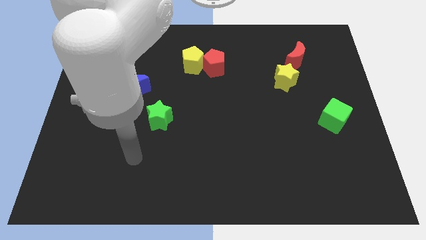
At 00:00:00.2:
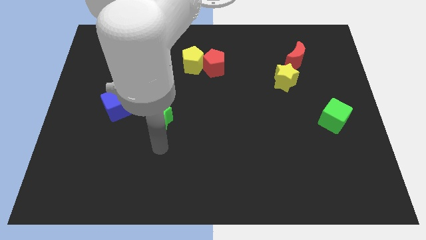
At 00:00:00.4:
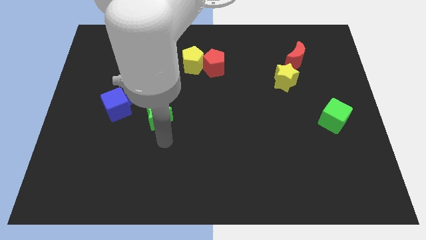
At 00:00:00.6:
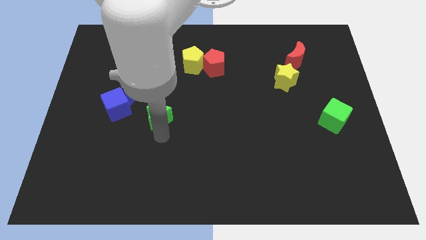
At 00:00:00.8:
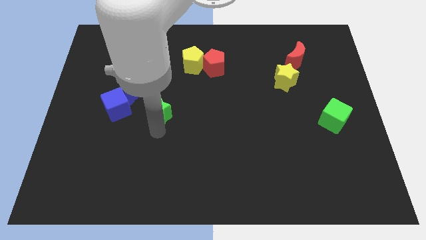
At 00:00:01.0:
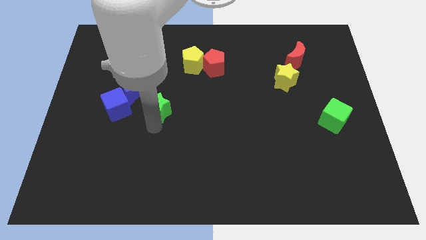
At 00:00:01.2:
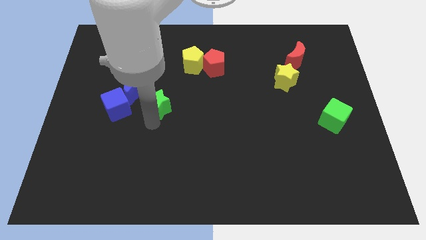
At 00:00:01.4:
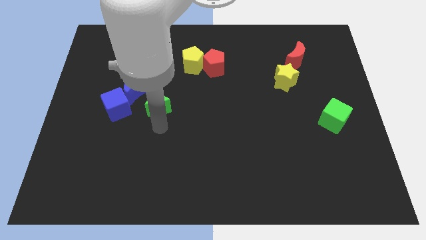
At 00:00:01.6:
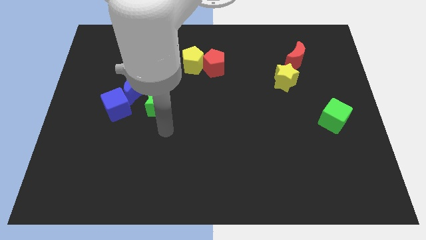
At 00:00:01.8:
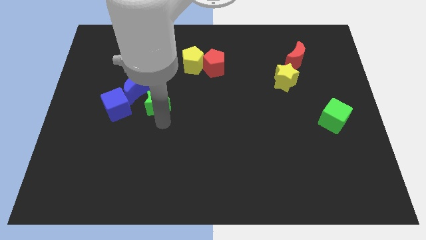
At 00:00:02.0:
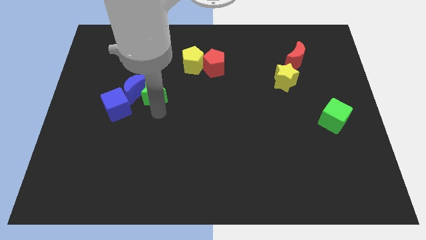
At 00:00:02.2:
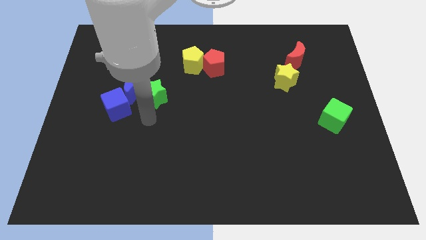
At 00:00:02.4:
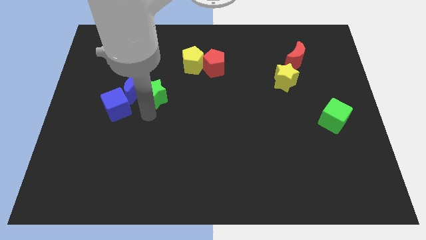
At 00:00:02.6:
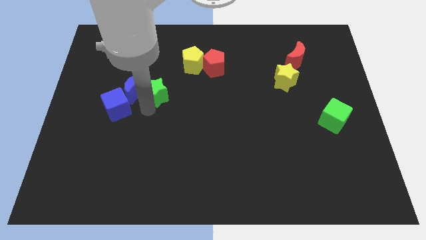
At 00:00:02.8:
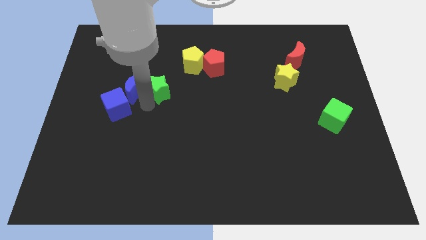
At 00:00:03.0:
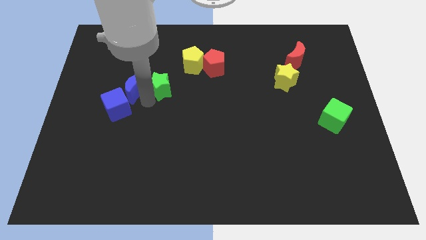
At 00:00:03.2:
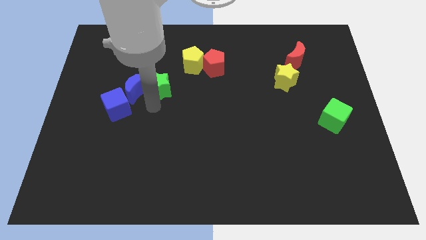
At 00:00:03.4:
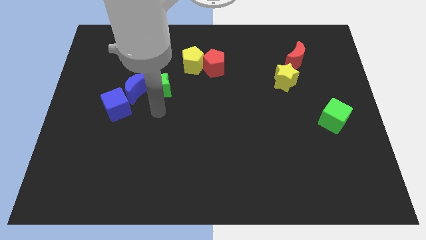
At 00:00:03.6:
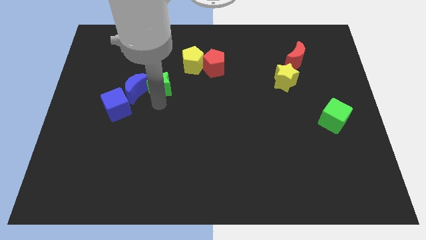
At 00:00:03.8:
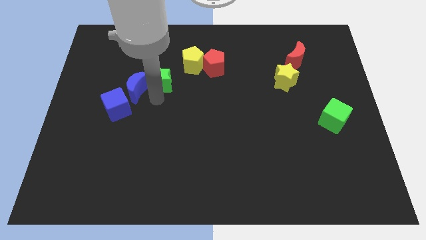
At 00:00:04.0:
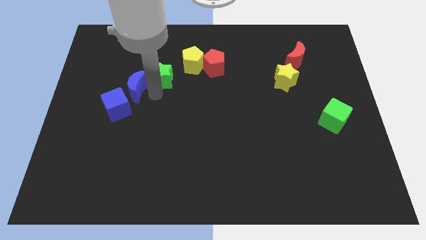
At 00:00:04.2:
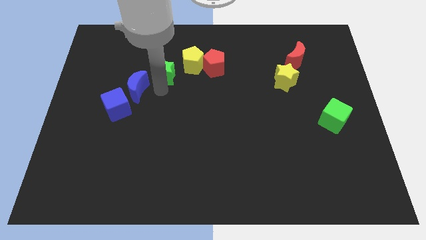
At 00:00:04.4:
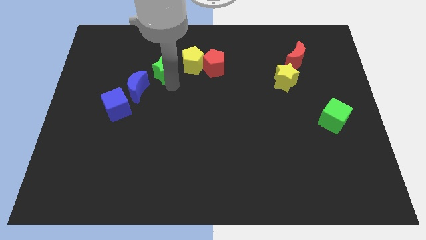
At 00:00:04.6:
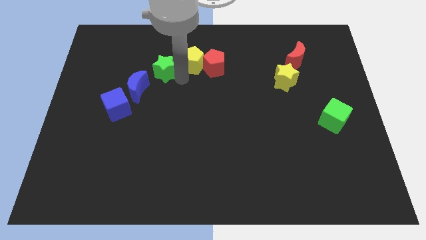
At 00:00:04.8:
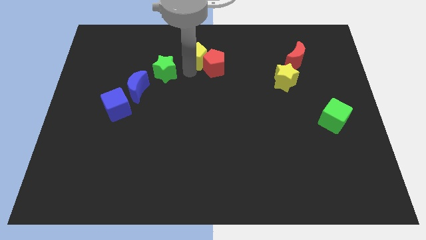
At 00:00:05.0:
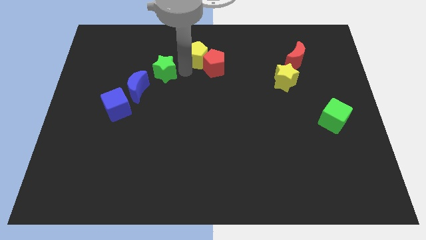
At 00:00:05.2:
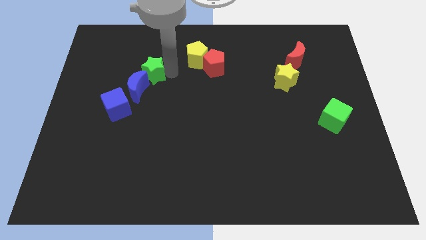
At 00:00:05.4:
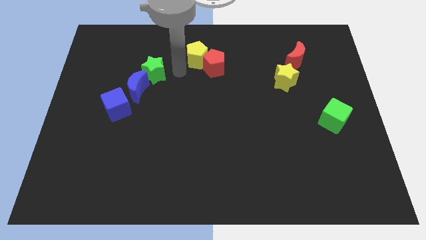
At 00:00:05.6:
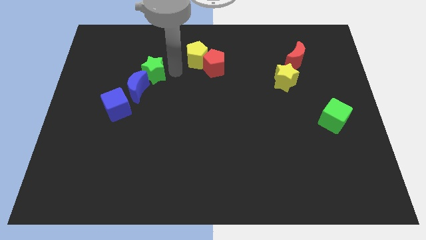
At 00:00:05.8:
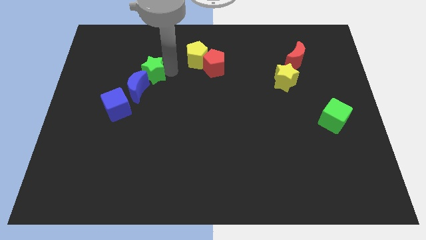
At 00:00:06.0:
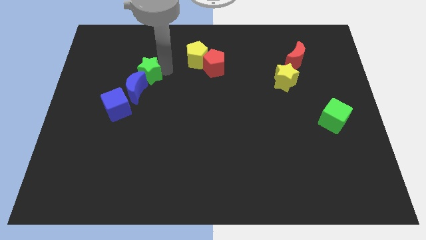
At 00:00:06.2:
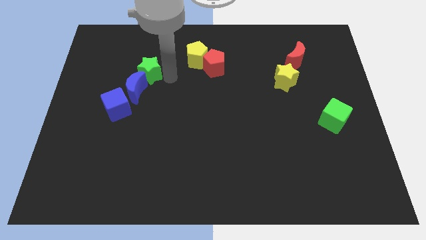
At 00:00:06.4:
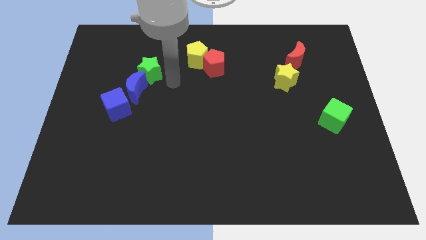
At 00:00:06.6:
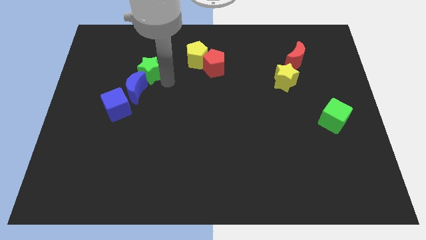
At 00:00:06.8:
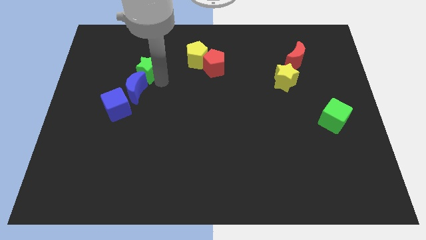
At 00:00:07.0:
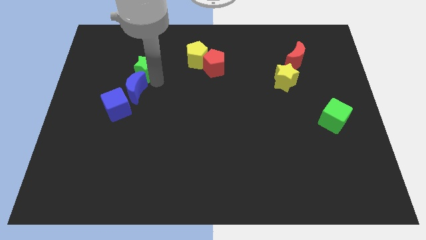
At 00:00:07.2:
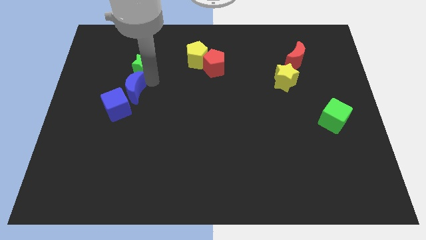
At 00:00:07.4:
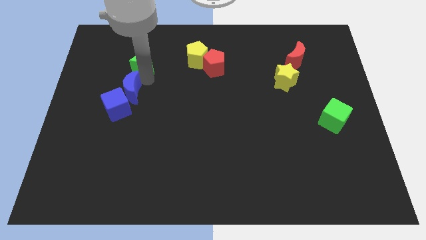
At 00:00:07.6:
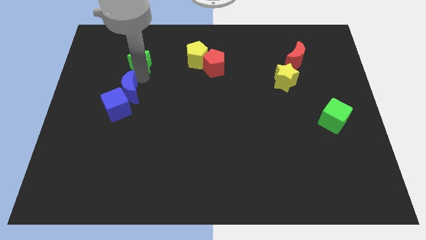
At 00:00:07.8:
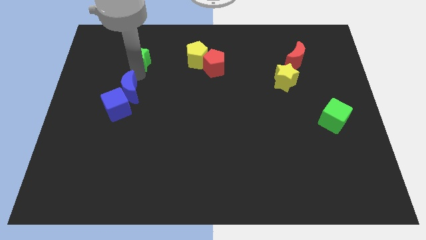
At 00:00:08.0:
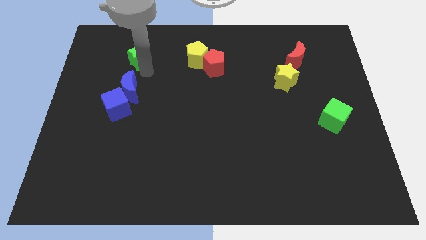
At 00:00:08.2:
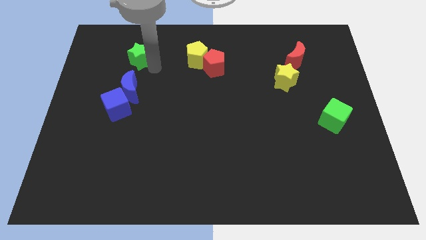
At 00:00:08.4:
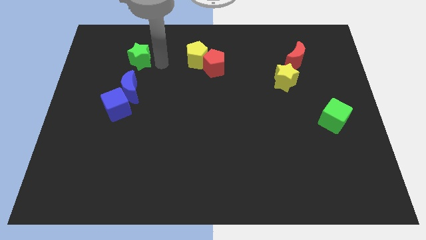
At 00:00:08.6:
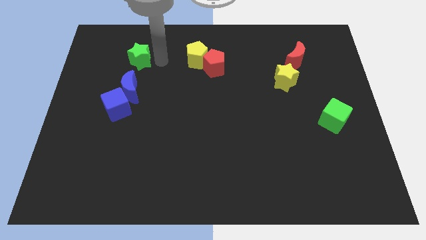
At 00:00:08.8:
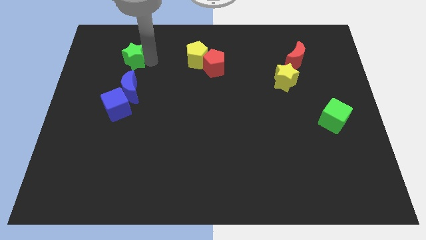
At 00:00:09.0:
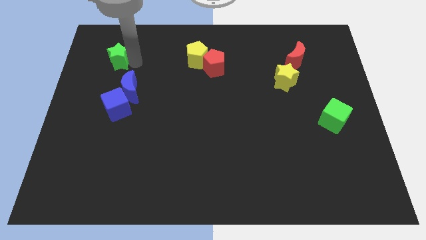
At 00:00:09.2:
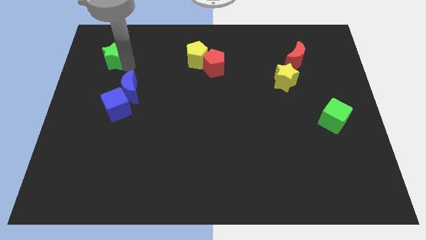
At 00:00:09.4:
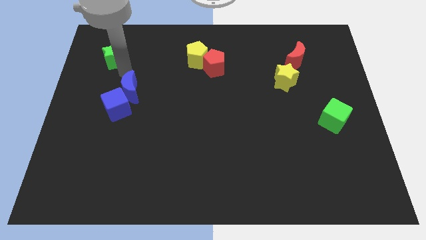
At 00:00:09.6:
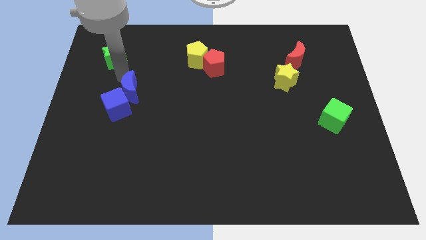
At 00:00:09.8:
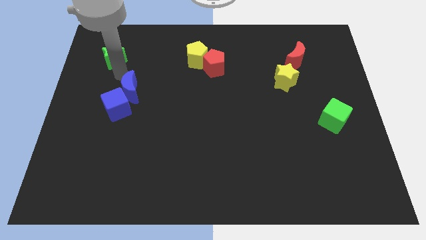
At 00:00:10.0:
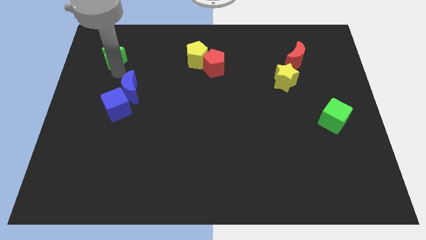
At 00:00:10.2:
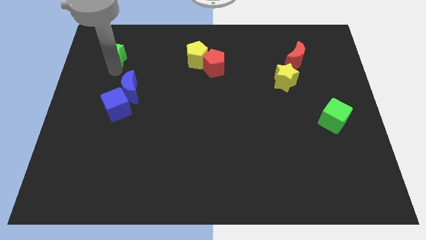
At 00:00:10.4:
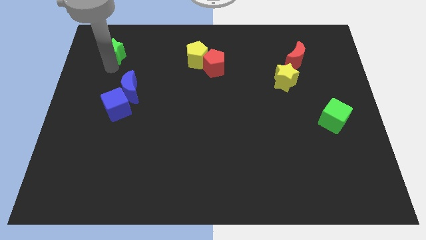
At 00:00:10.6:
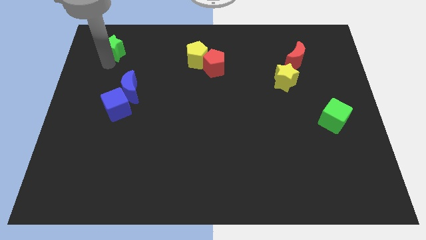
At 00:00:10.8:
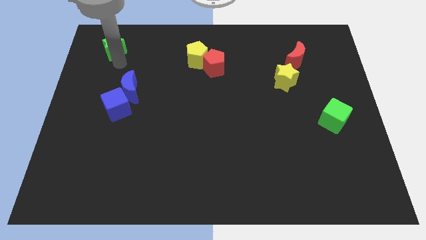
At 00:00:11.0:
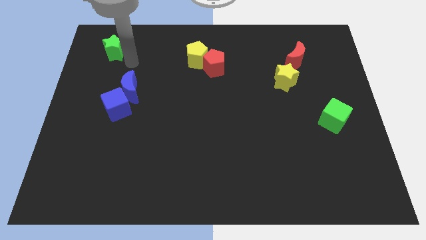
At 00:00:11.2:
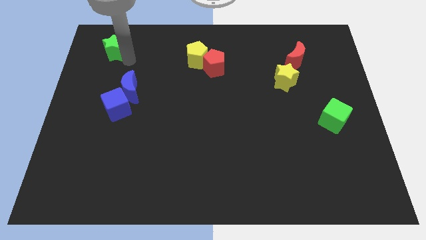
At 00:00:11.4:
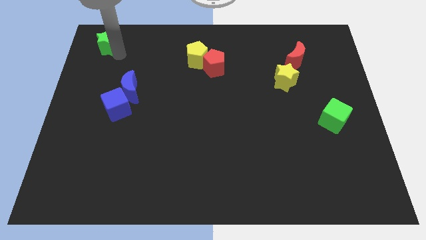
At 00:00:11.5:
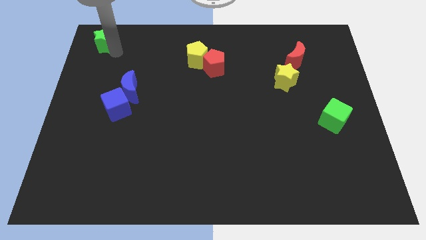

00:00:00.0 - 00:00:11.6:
move the green star to the upper left corner
